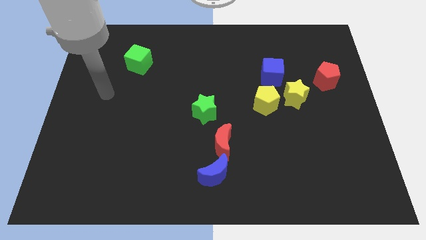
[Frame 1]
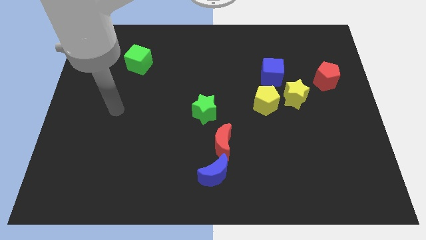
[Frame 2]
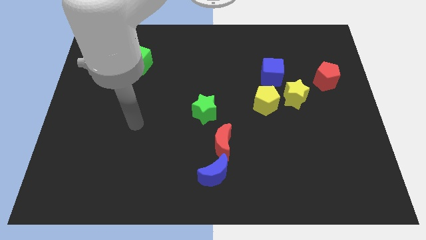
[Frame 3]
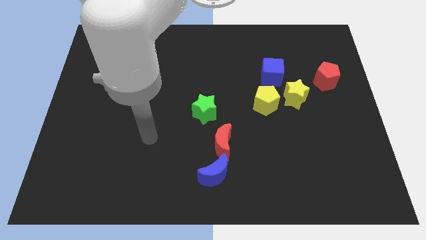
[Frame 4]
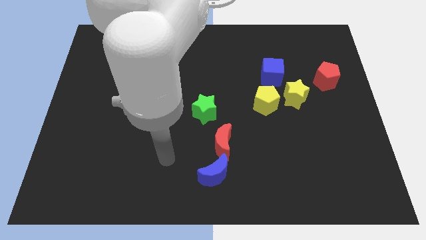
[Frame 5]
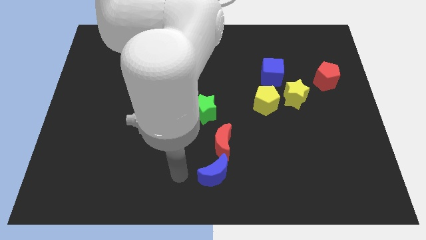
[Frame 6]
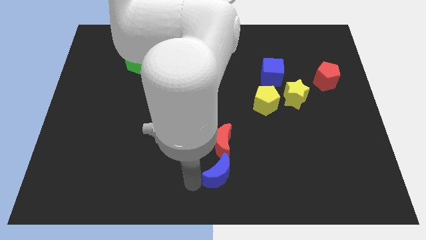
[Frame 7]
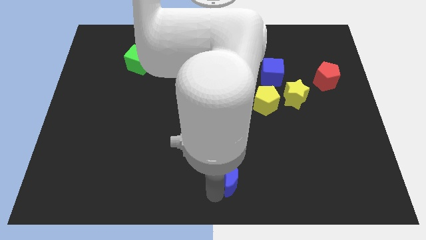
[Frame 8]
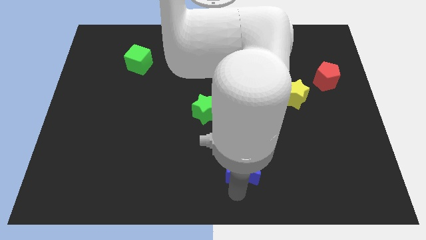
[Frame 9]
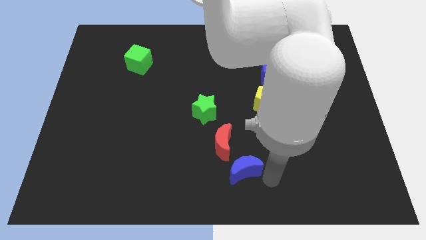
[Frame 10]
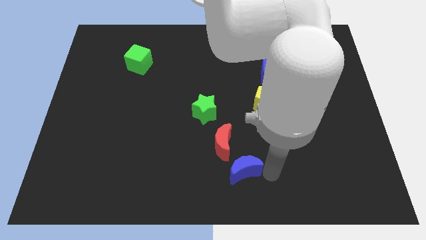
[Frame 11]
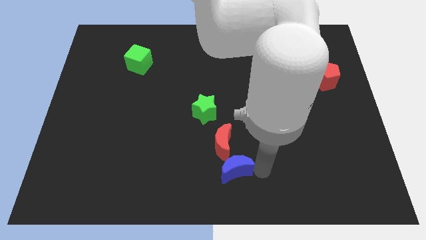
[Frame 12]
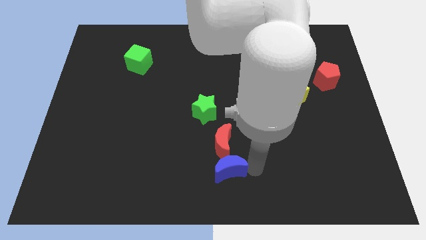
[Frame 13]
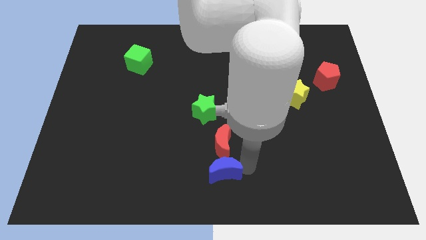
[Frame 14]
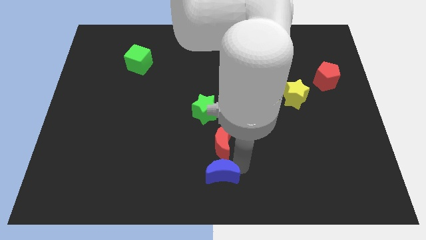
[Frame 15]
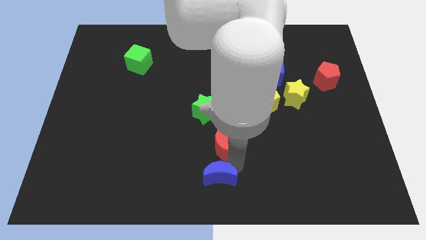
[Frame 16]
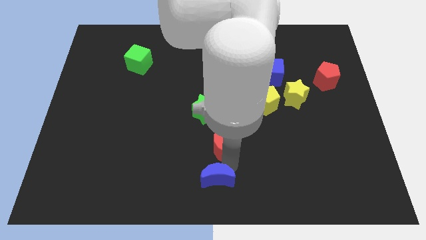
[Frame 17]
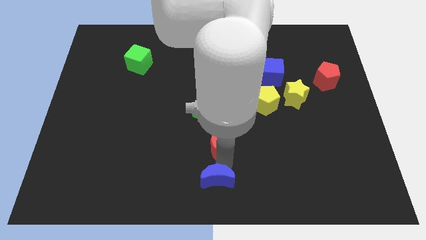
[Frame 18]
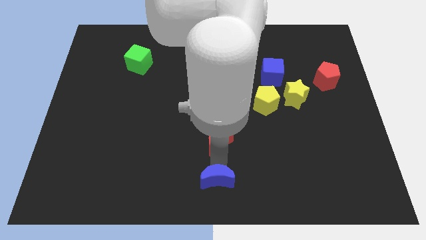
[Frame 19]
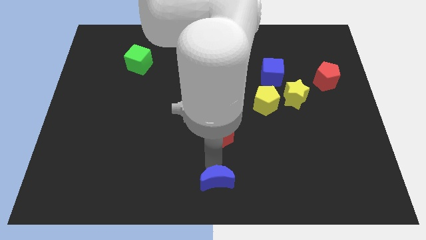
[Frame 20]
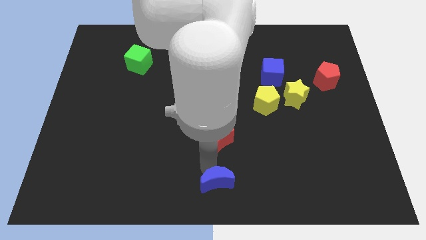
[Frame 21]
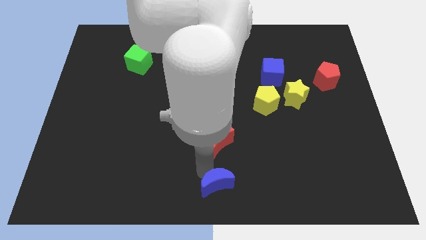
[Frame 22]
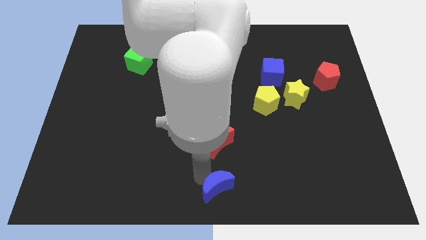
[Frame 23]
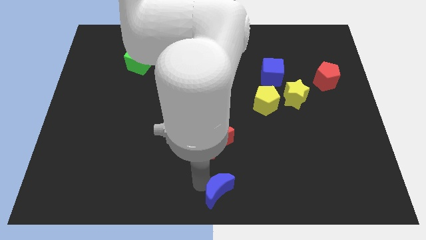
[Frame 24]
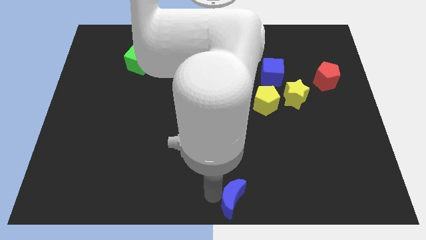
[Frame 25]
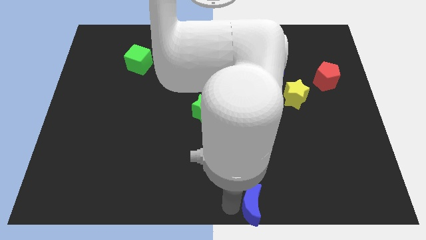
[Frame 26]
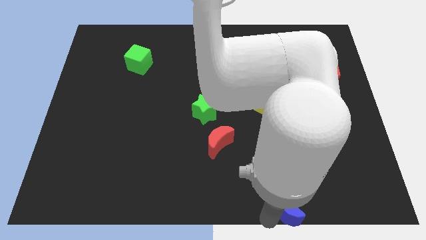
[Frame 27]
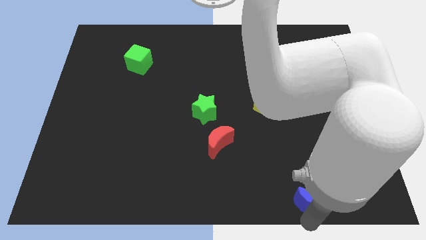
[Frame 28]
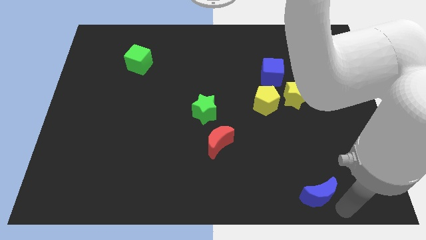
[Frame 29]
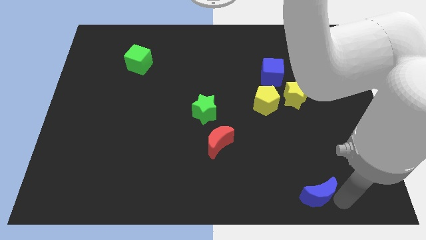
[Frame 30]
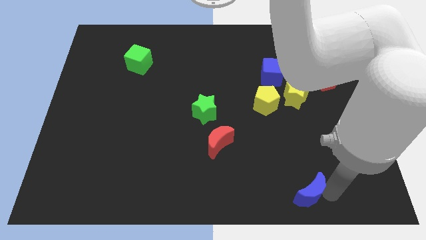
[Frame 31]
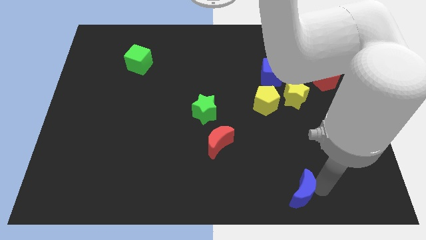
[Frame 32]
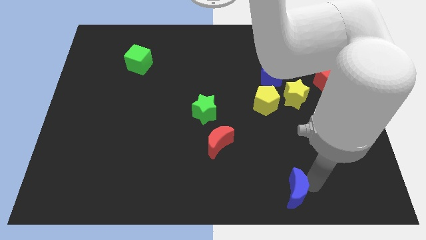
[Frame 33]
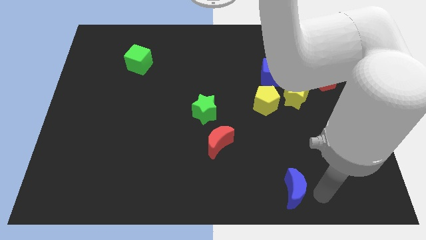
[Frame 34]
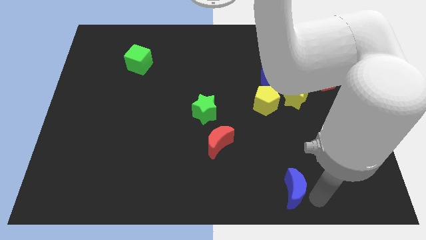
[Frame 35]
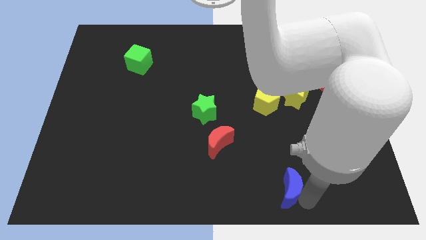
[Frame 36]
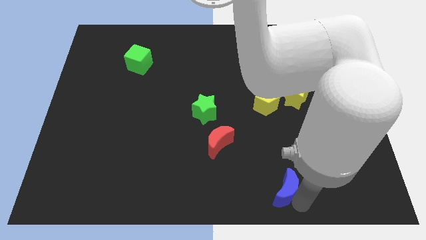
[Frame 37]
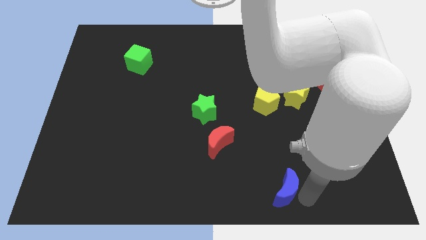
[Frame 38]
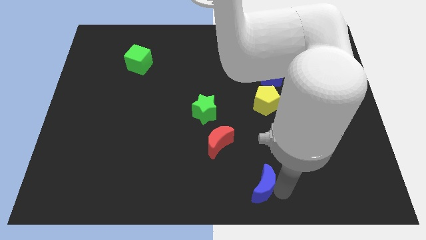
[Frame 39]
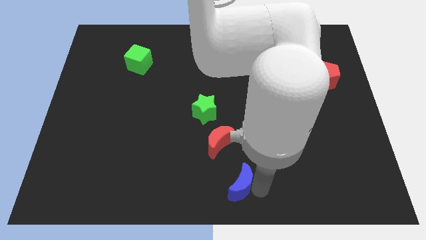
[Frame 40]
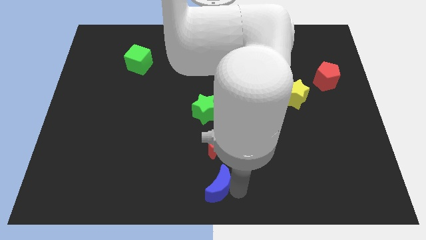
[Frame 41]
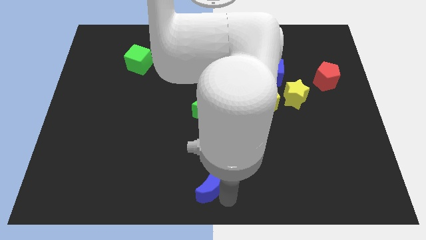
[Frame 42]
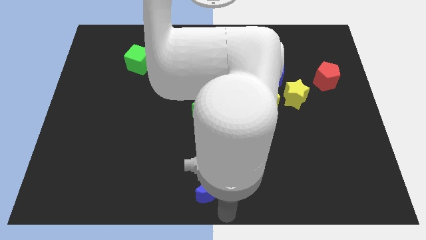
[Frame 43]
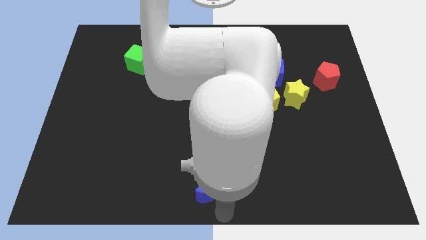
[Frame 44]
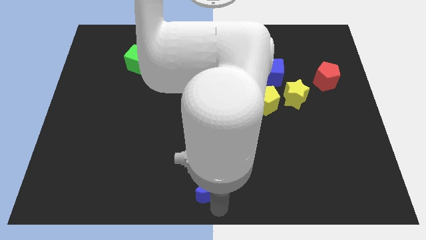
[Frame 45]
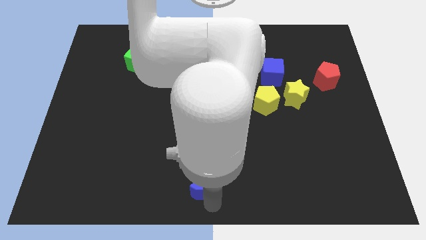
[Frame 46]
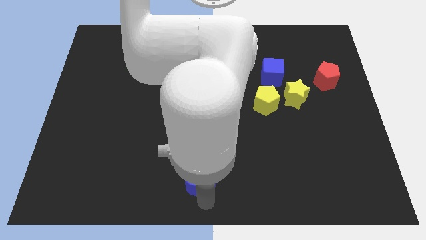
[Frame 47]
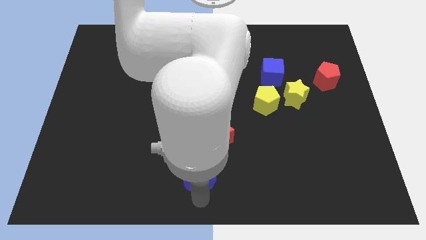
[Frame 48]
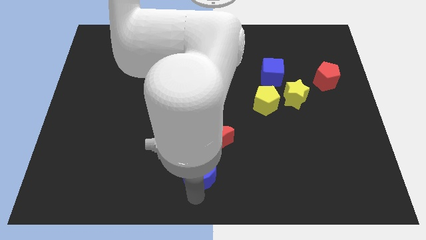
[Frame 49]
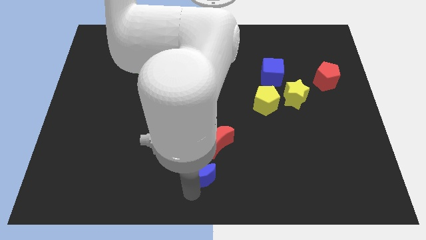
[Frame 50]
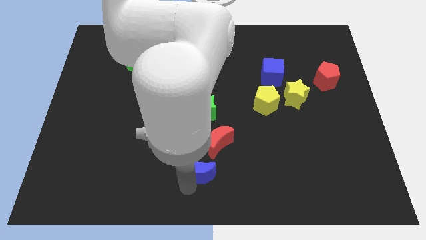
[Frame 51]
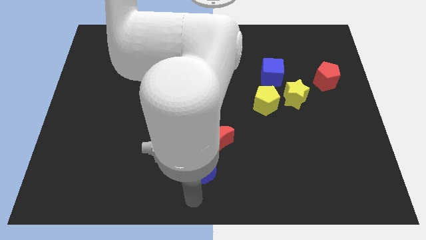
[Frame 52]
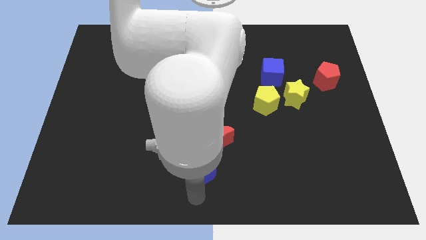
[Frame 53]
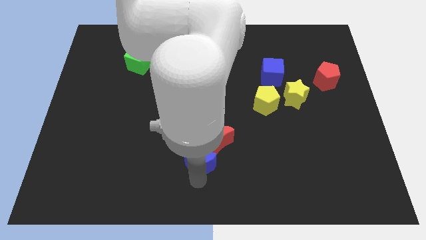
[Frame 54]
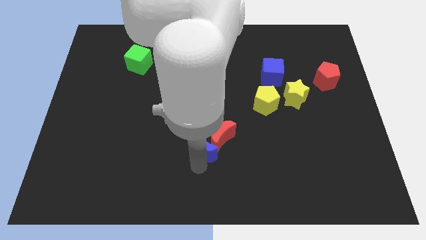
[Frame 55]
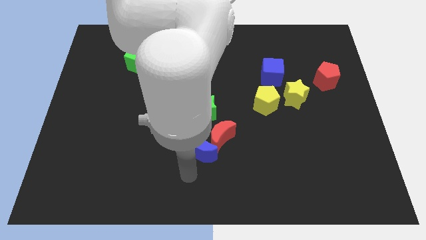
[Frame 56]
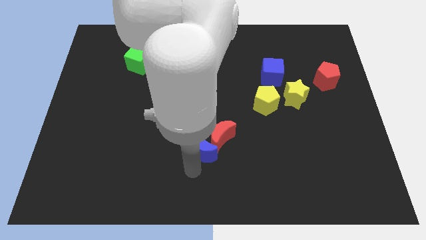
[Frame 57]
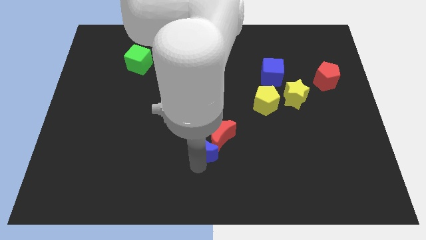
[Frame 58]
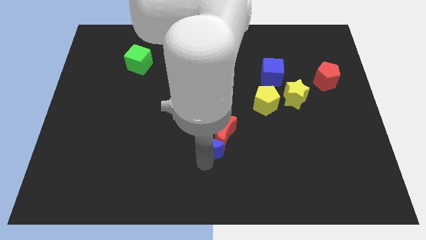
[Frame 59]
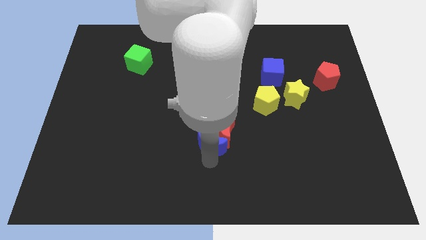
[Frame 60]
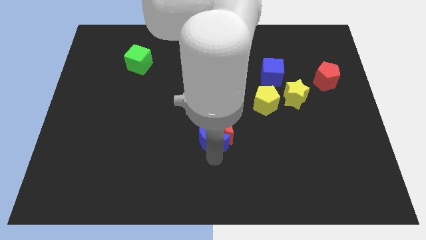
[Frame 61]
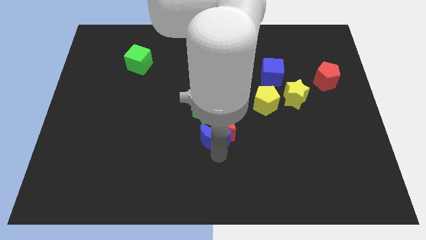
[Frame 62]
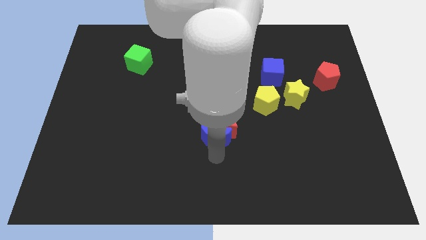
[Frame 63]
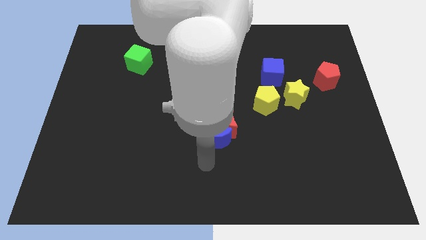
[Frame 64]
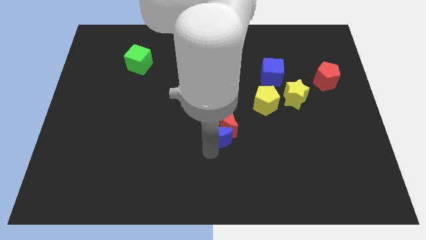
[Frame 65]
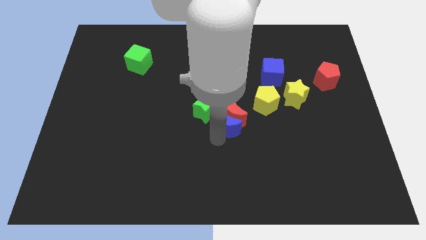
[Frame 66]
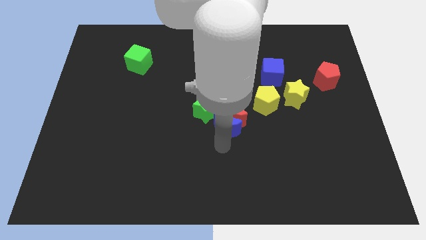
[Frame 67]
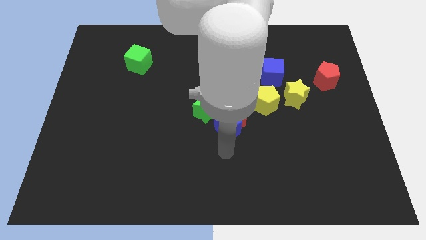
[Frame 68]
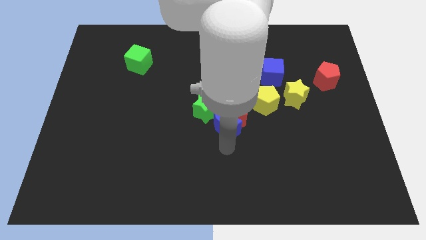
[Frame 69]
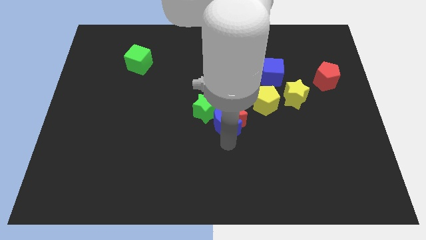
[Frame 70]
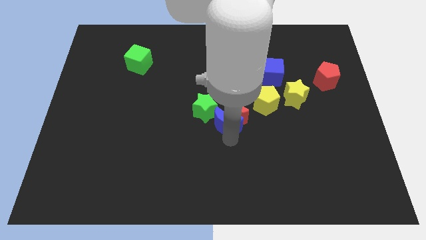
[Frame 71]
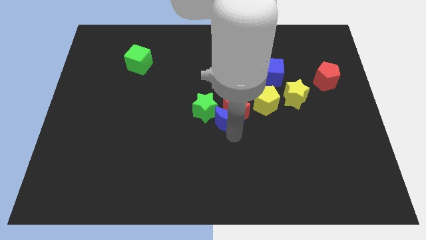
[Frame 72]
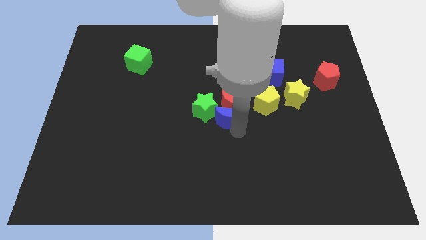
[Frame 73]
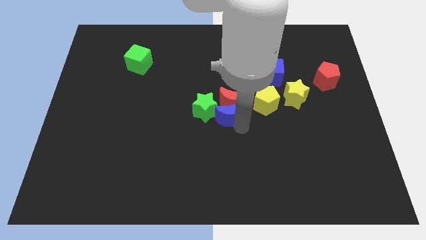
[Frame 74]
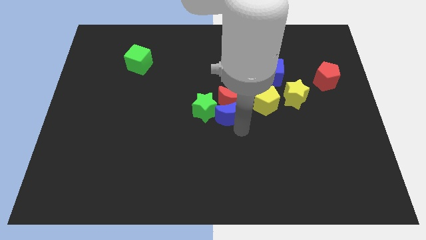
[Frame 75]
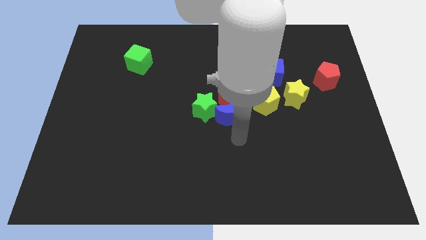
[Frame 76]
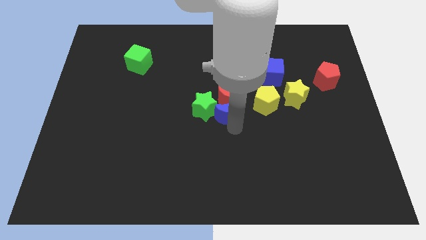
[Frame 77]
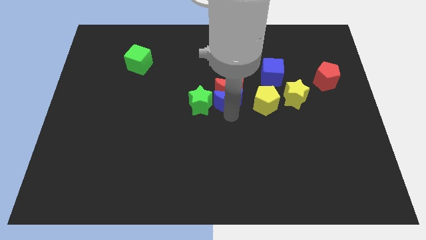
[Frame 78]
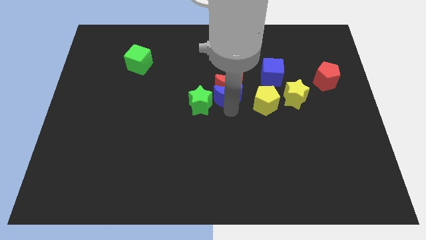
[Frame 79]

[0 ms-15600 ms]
move the blue moon upwards
